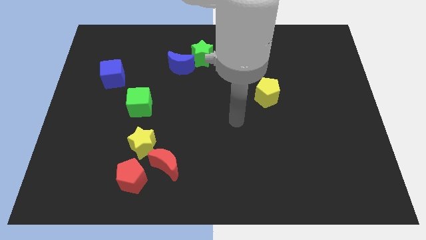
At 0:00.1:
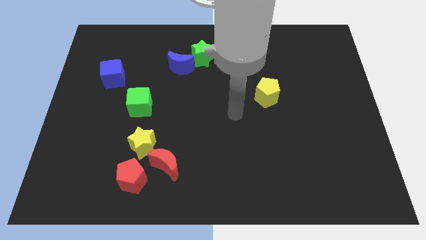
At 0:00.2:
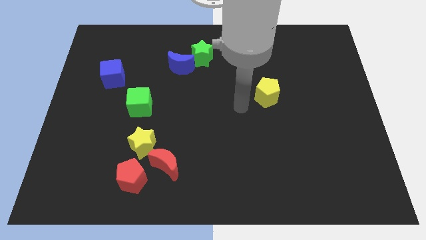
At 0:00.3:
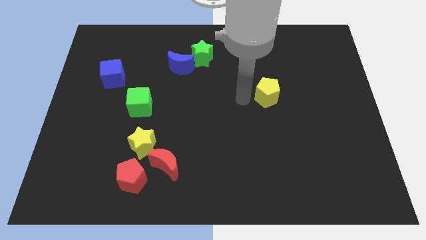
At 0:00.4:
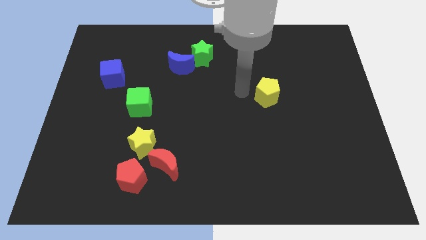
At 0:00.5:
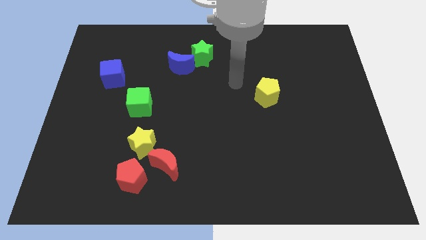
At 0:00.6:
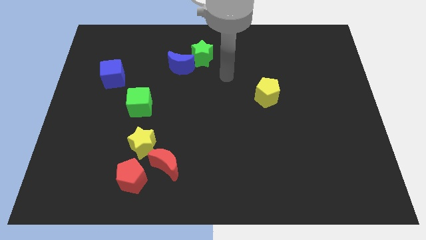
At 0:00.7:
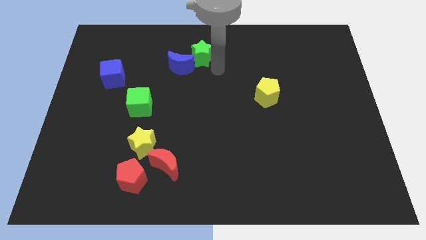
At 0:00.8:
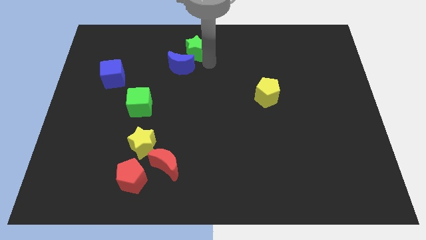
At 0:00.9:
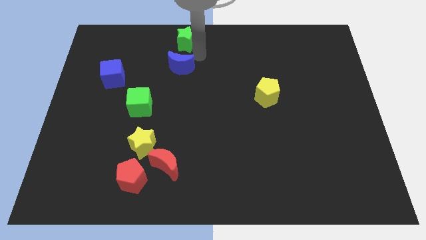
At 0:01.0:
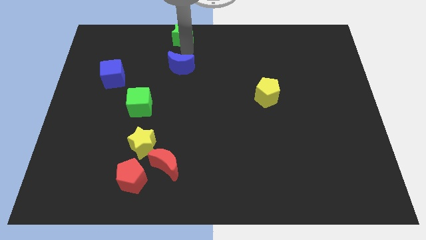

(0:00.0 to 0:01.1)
separate the blue moon from the green star

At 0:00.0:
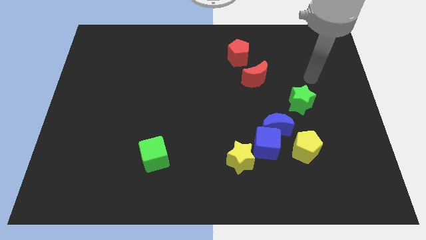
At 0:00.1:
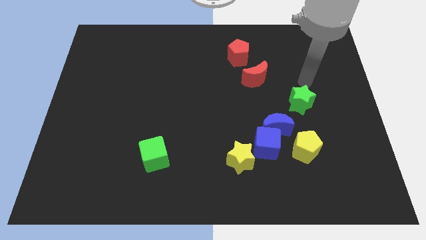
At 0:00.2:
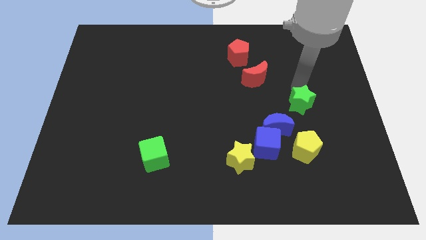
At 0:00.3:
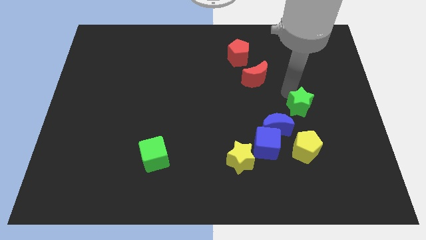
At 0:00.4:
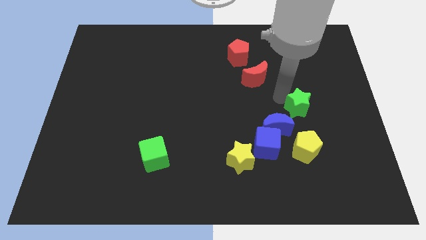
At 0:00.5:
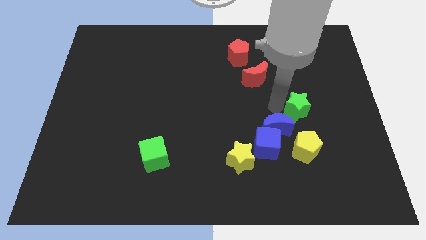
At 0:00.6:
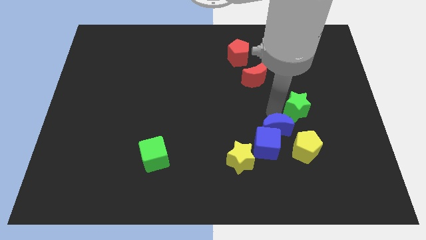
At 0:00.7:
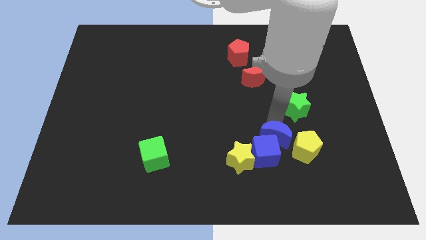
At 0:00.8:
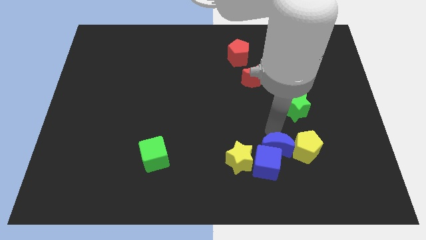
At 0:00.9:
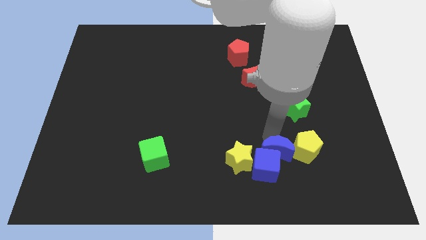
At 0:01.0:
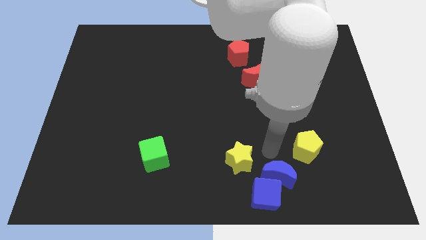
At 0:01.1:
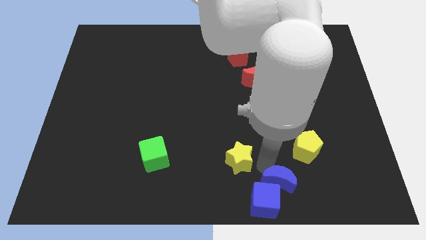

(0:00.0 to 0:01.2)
separate the yellow star from the blue cube

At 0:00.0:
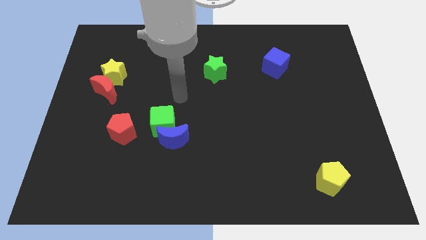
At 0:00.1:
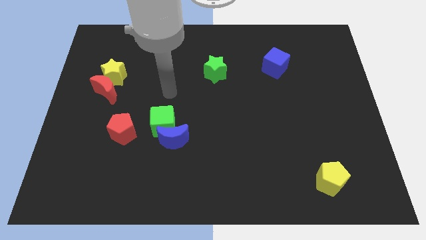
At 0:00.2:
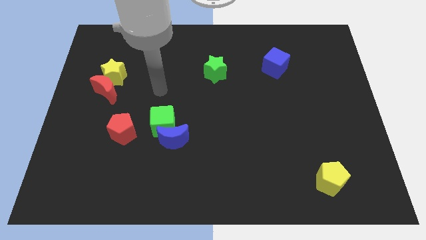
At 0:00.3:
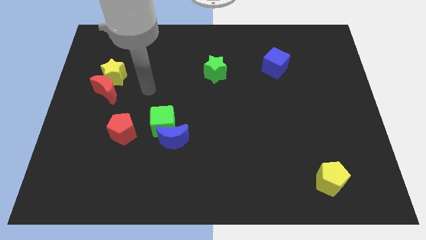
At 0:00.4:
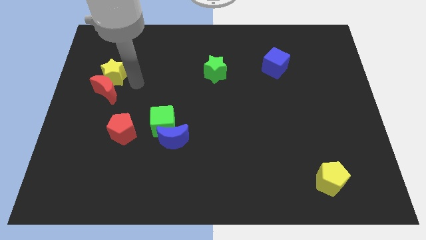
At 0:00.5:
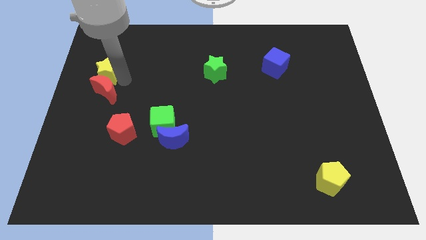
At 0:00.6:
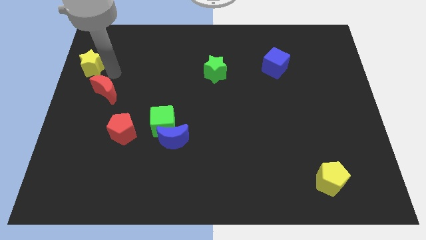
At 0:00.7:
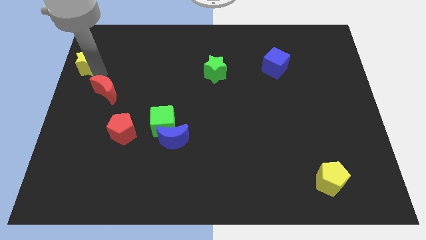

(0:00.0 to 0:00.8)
separate the red moon from the yellow star

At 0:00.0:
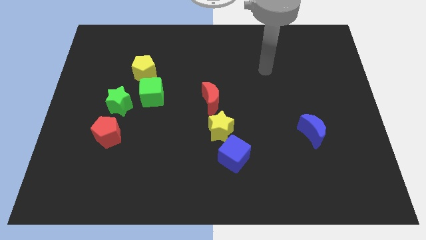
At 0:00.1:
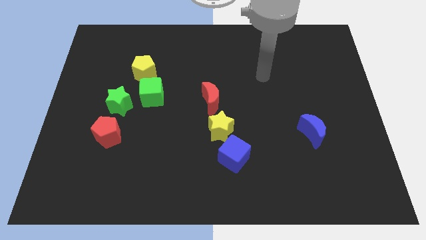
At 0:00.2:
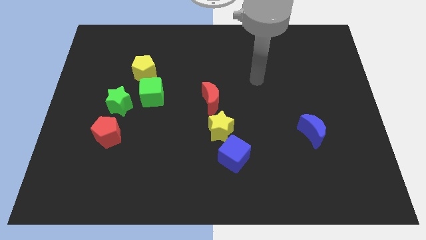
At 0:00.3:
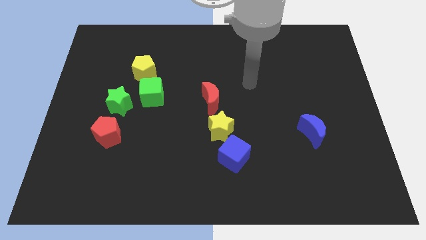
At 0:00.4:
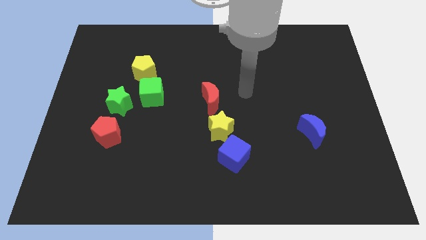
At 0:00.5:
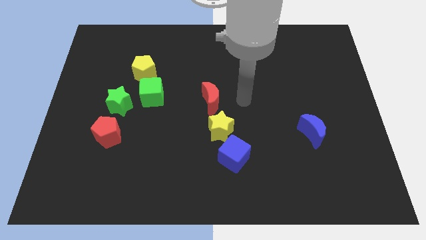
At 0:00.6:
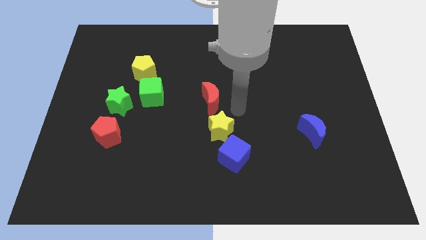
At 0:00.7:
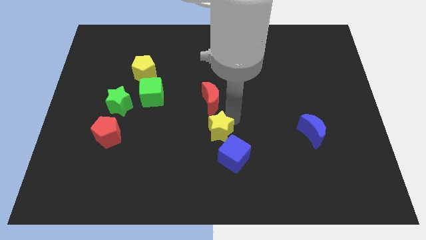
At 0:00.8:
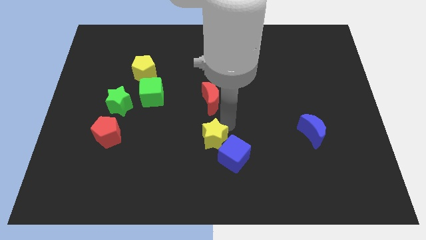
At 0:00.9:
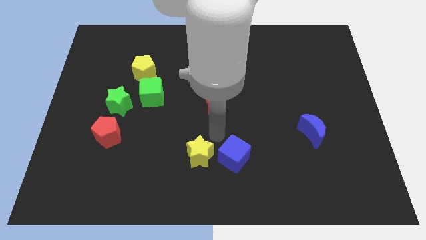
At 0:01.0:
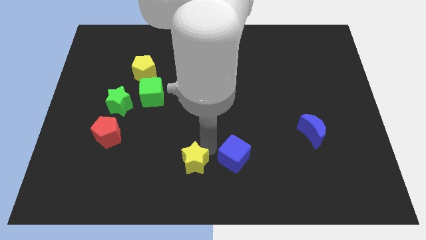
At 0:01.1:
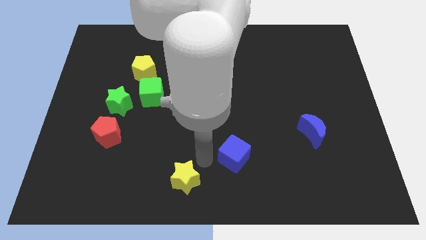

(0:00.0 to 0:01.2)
separate the blue cube from the yellow star

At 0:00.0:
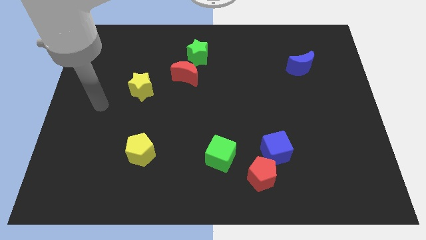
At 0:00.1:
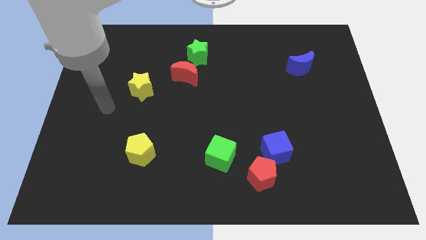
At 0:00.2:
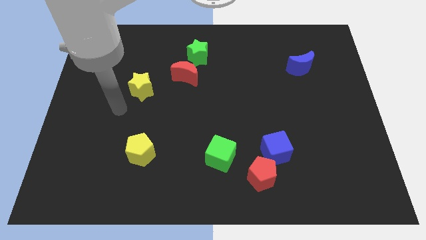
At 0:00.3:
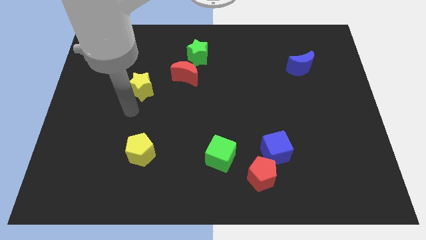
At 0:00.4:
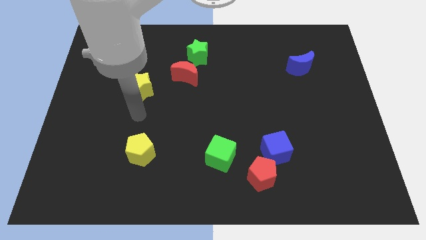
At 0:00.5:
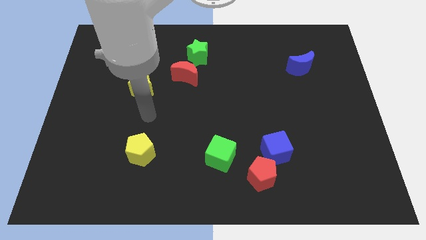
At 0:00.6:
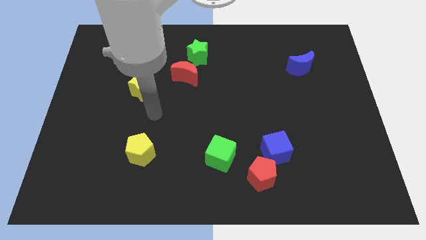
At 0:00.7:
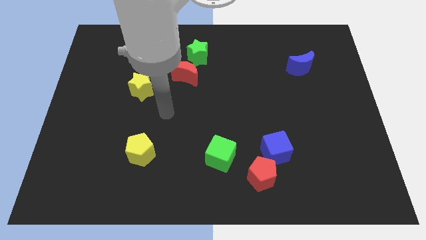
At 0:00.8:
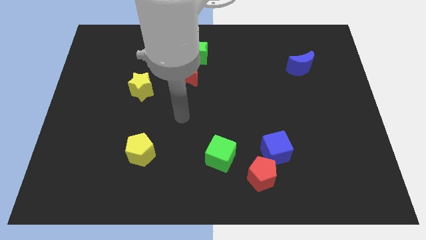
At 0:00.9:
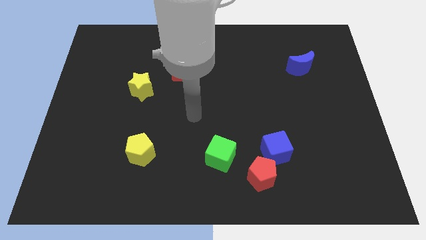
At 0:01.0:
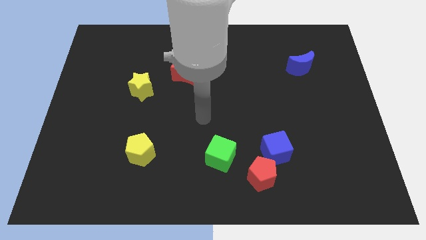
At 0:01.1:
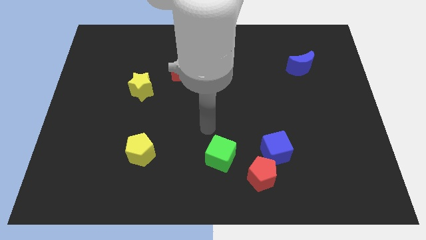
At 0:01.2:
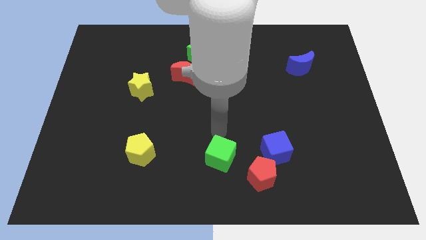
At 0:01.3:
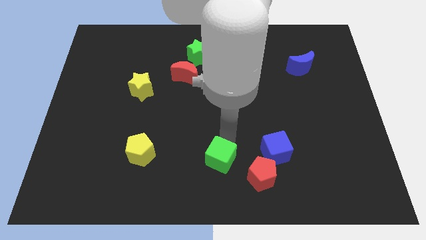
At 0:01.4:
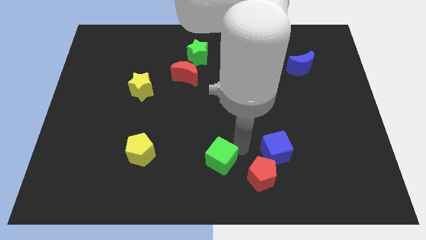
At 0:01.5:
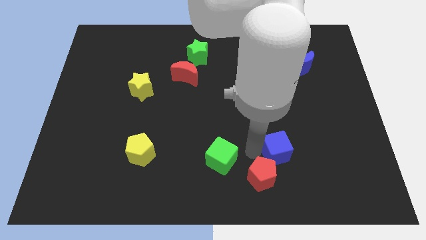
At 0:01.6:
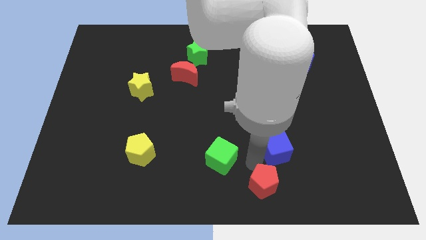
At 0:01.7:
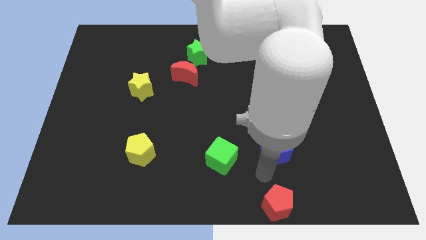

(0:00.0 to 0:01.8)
separate the blue cube from the red pentagon

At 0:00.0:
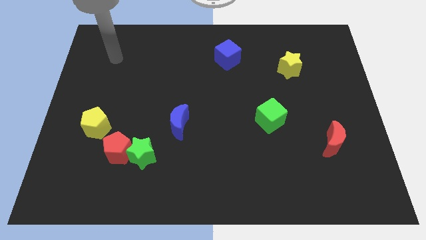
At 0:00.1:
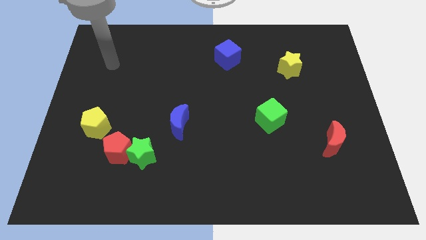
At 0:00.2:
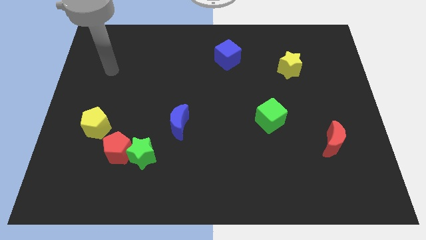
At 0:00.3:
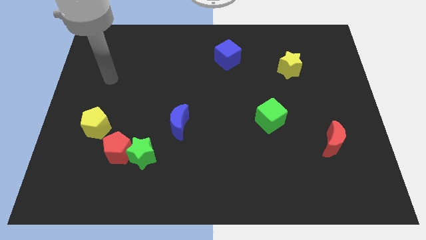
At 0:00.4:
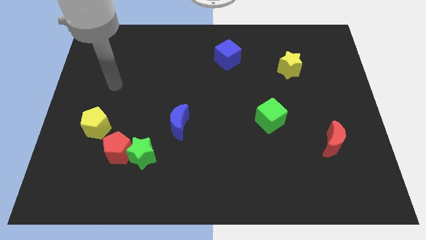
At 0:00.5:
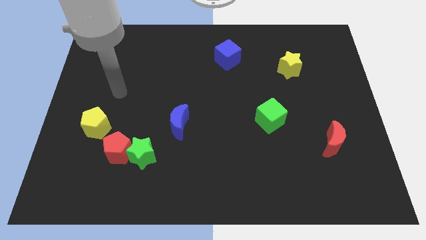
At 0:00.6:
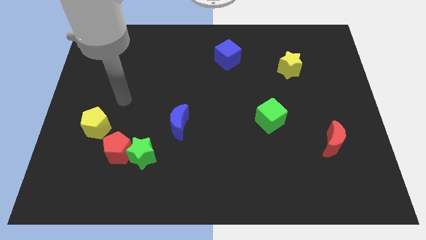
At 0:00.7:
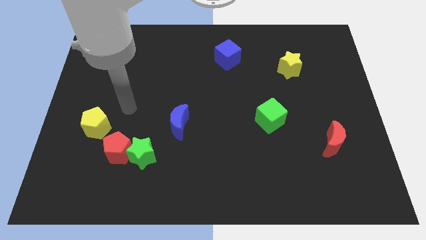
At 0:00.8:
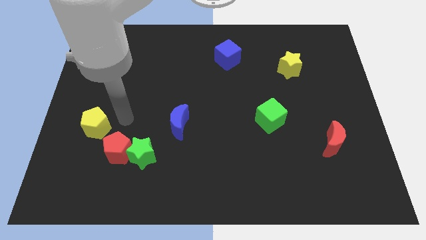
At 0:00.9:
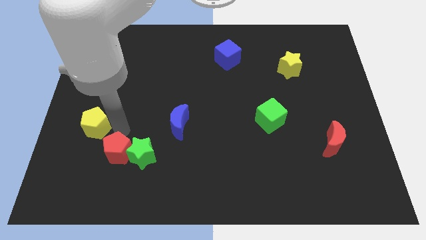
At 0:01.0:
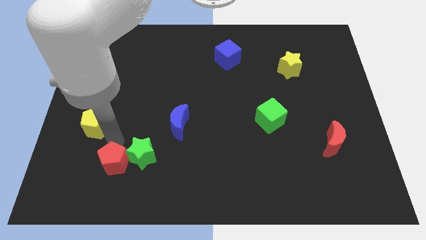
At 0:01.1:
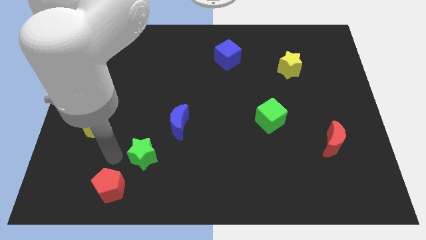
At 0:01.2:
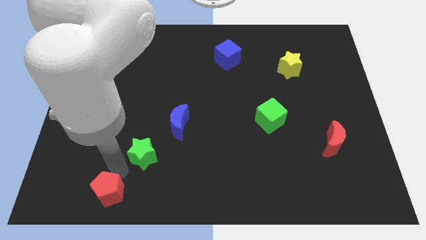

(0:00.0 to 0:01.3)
move the green star away from the red pentagon

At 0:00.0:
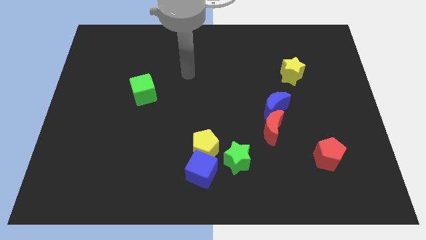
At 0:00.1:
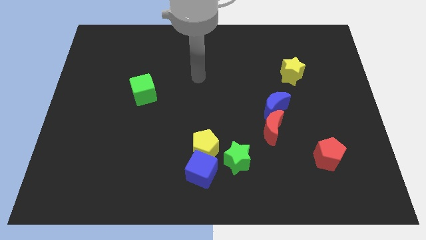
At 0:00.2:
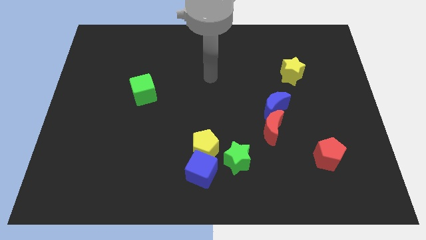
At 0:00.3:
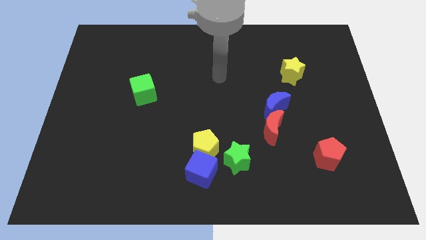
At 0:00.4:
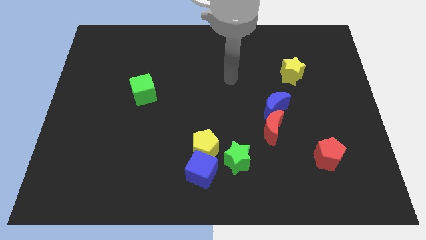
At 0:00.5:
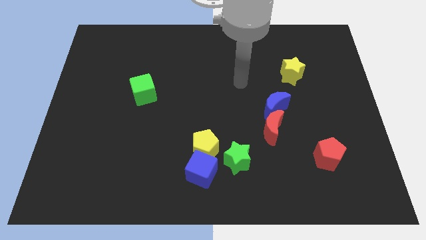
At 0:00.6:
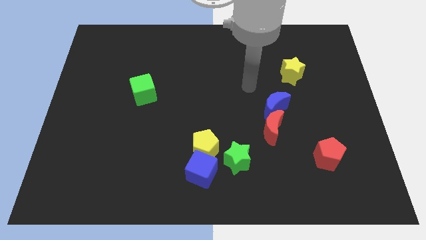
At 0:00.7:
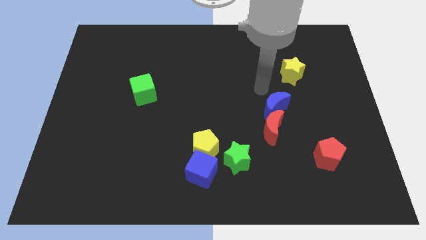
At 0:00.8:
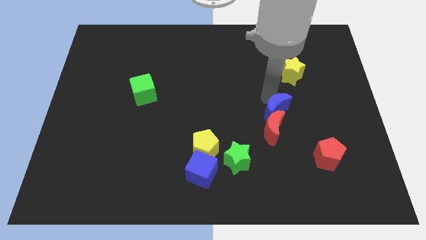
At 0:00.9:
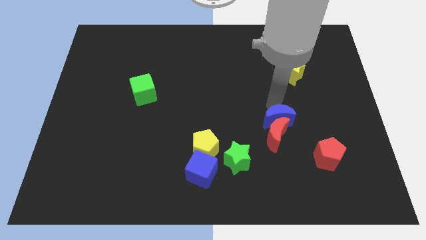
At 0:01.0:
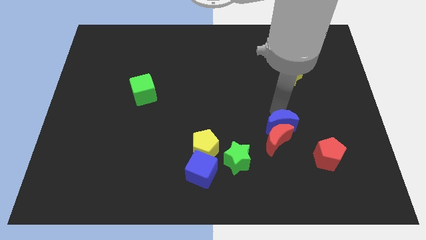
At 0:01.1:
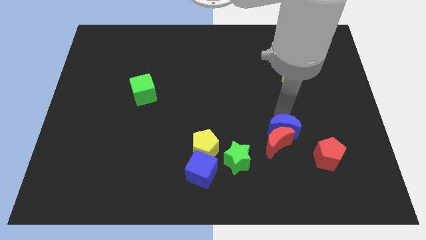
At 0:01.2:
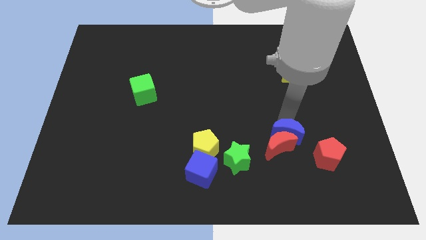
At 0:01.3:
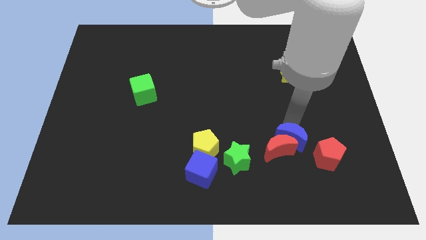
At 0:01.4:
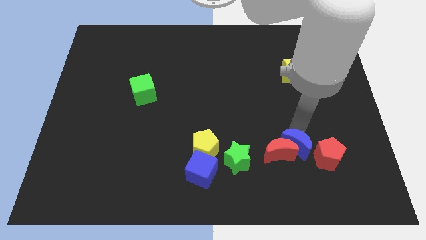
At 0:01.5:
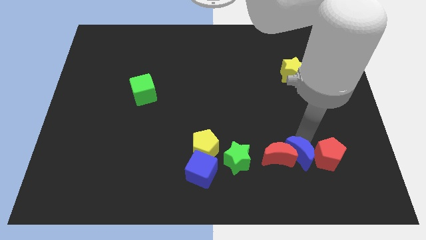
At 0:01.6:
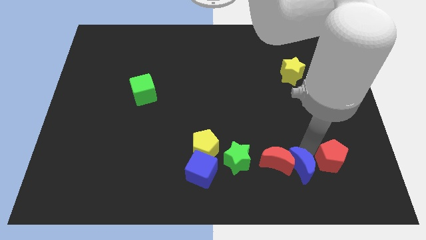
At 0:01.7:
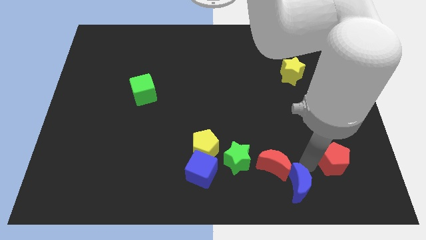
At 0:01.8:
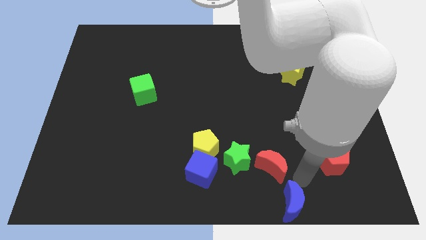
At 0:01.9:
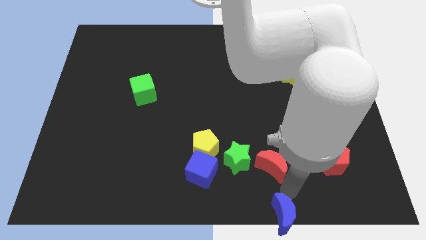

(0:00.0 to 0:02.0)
separate the red moon from the blue moon
